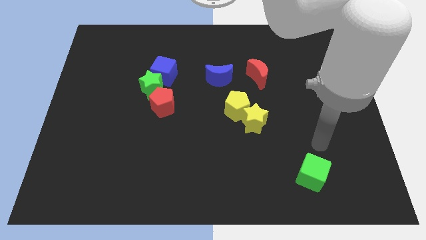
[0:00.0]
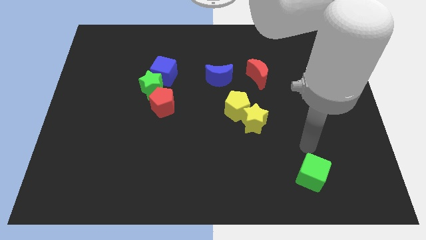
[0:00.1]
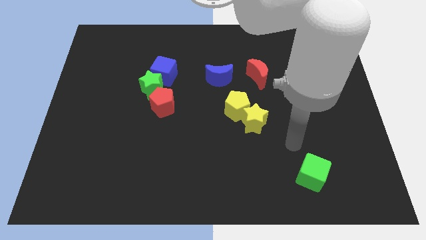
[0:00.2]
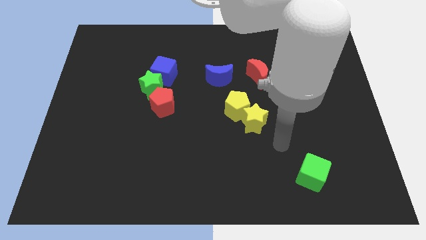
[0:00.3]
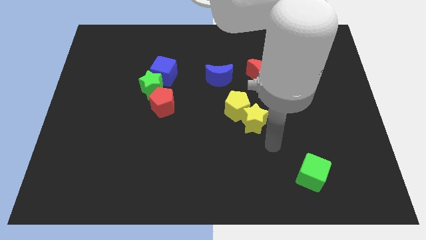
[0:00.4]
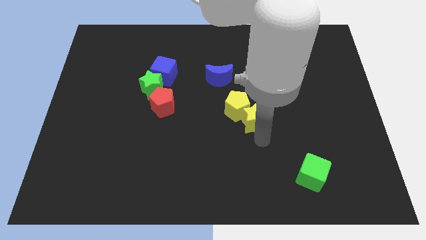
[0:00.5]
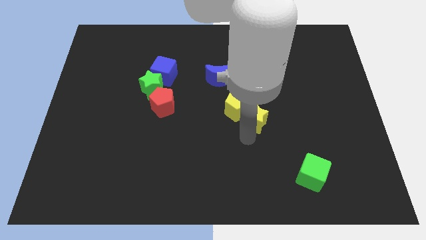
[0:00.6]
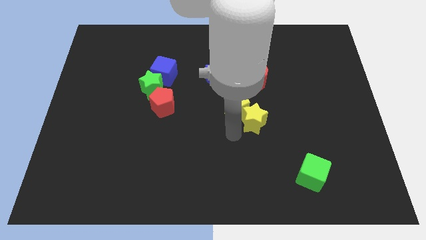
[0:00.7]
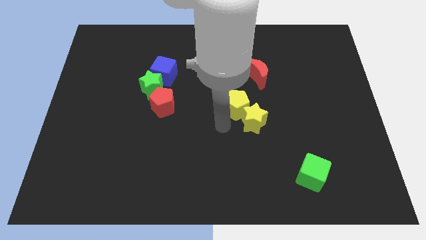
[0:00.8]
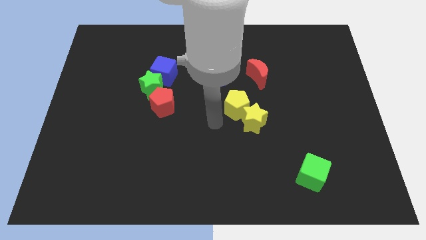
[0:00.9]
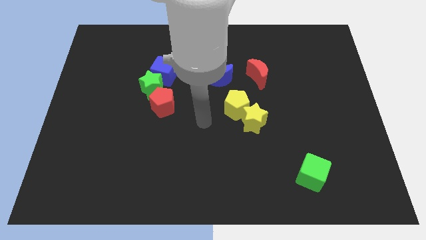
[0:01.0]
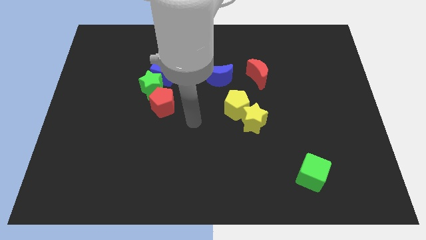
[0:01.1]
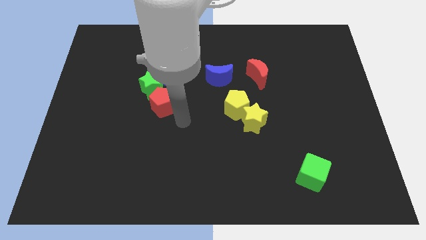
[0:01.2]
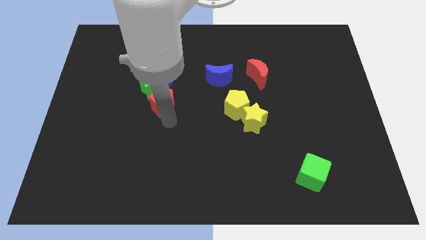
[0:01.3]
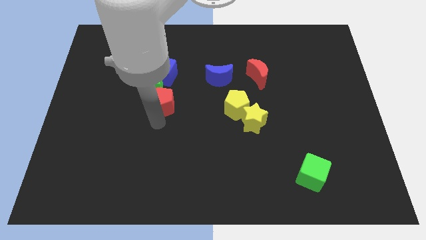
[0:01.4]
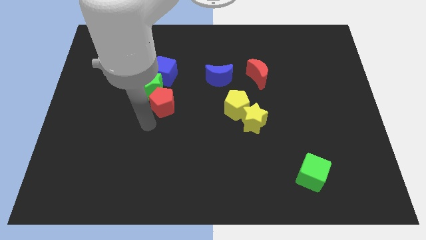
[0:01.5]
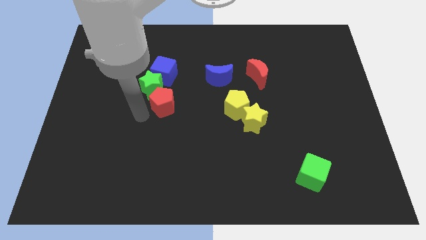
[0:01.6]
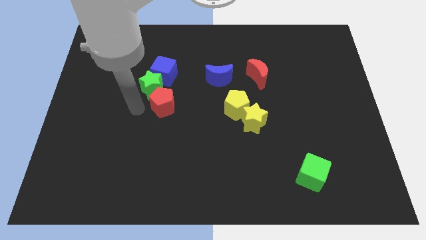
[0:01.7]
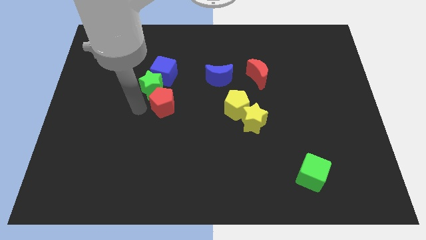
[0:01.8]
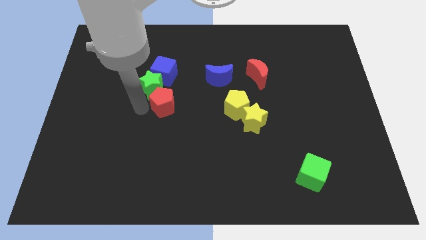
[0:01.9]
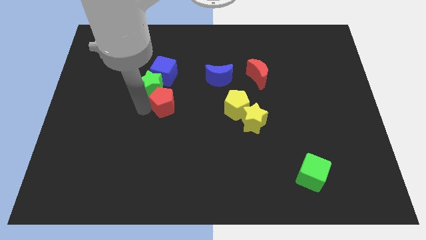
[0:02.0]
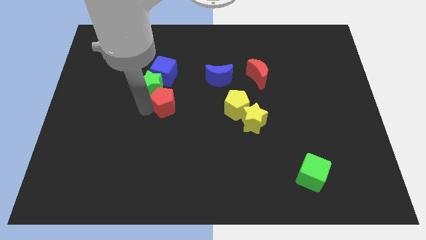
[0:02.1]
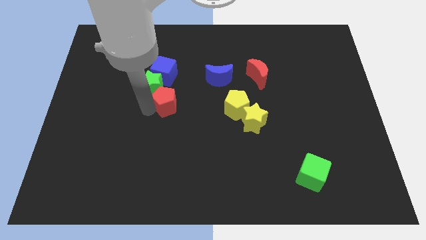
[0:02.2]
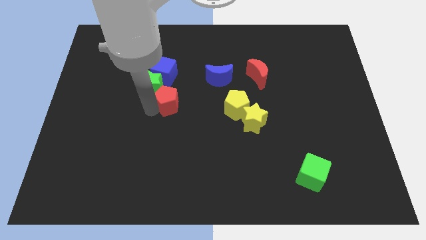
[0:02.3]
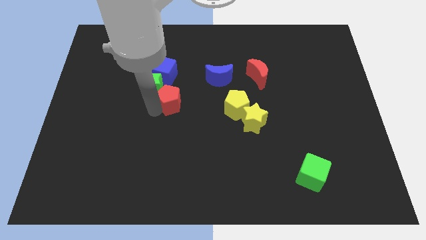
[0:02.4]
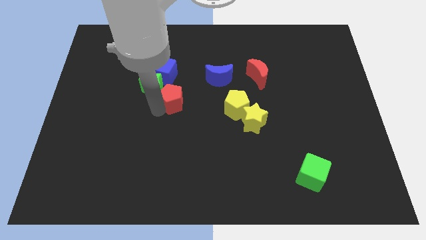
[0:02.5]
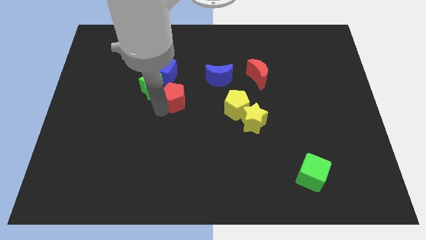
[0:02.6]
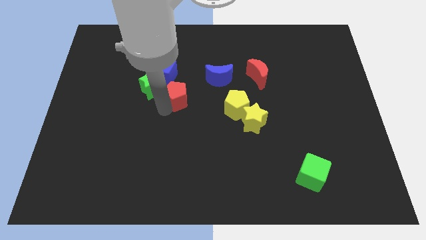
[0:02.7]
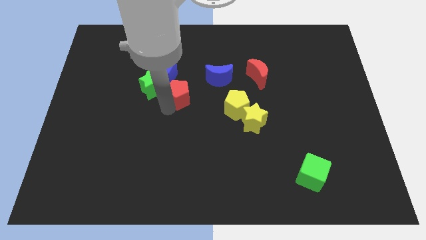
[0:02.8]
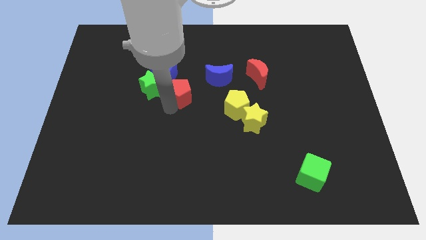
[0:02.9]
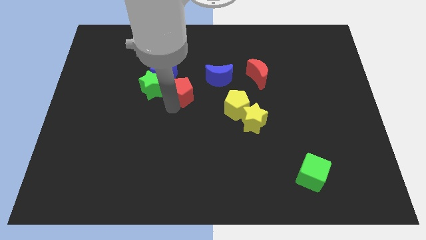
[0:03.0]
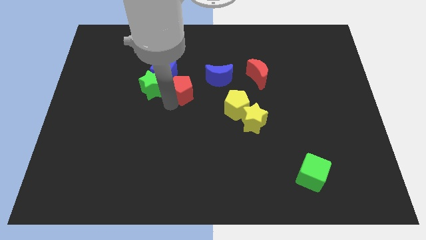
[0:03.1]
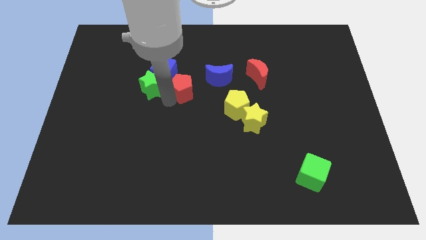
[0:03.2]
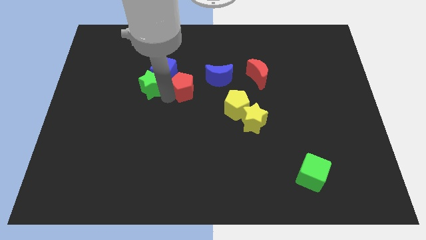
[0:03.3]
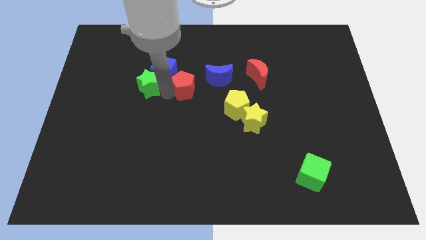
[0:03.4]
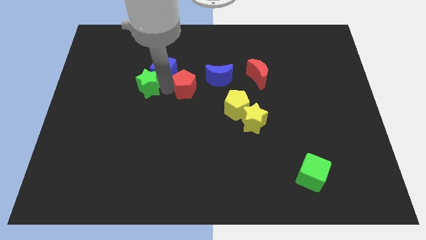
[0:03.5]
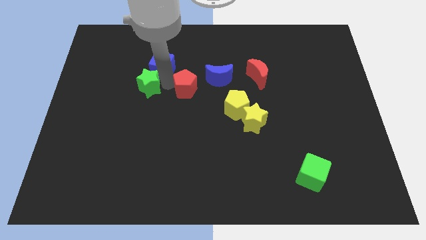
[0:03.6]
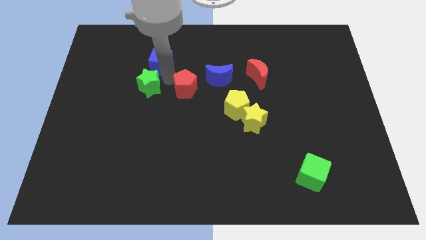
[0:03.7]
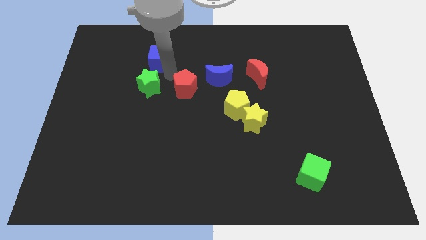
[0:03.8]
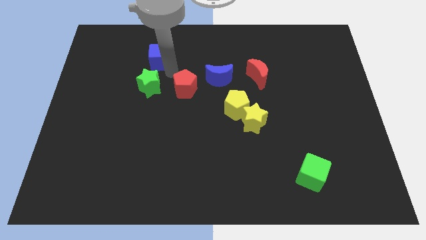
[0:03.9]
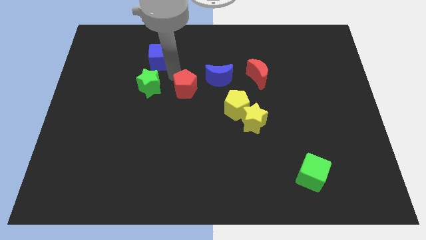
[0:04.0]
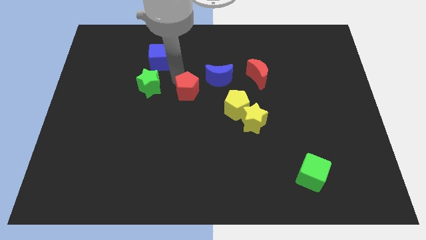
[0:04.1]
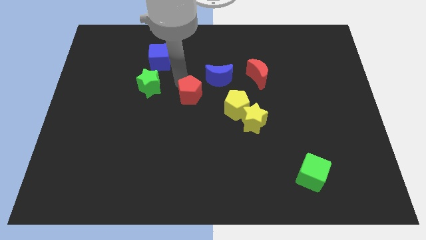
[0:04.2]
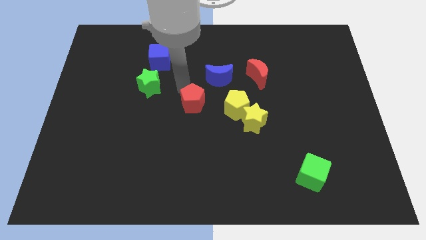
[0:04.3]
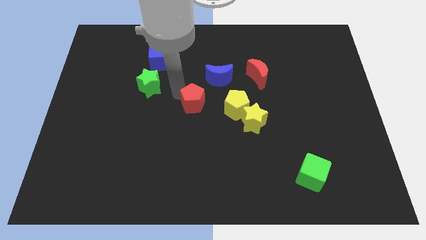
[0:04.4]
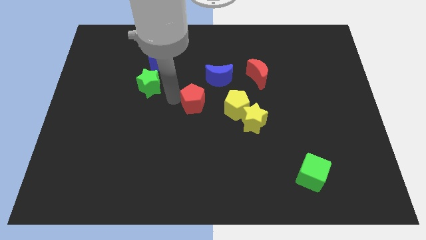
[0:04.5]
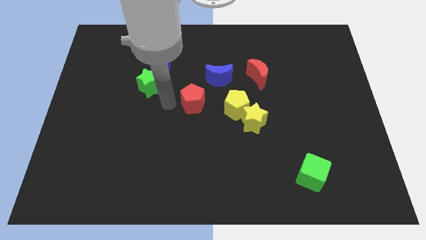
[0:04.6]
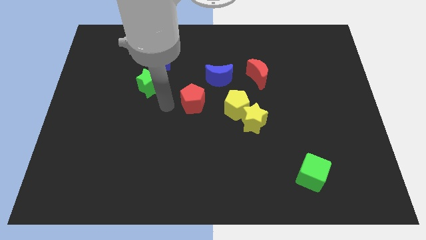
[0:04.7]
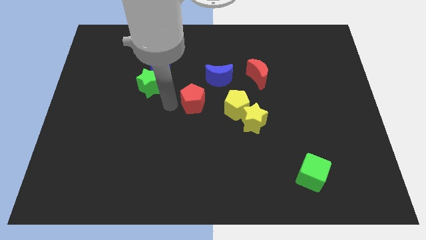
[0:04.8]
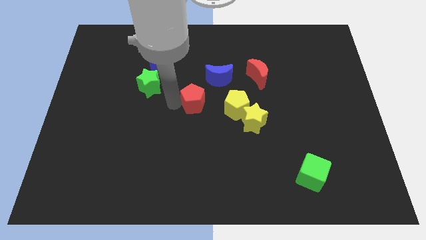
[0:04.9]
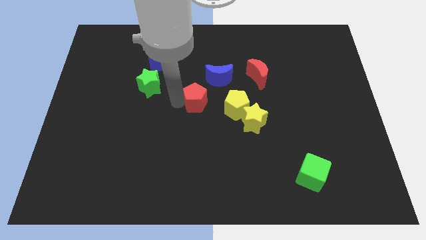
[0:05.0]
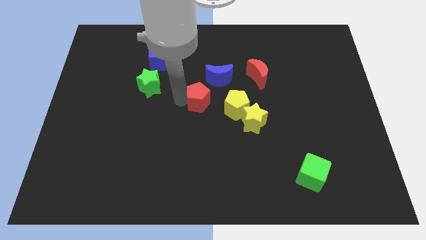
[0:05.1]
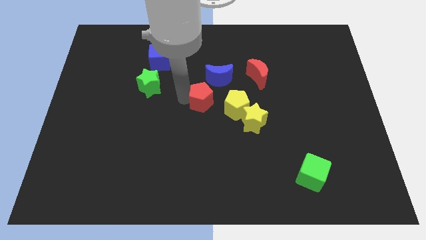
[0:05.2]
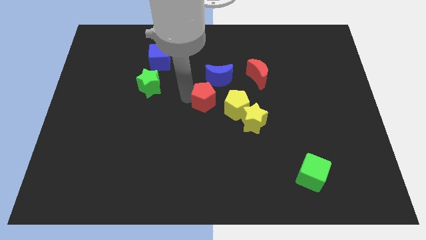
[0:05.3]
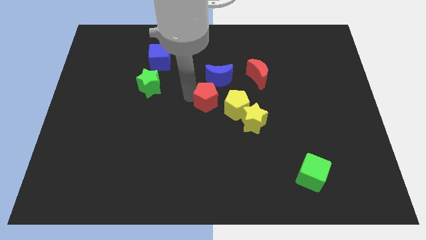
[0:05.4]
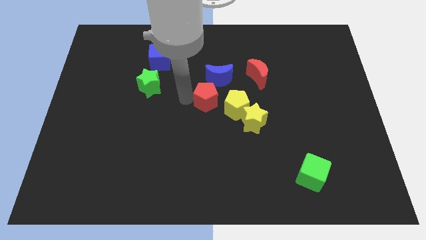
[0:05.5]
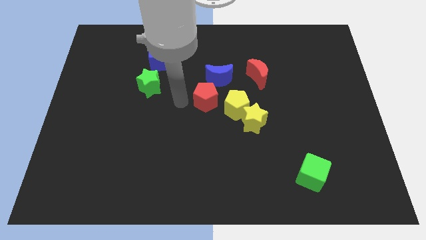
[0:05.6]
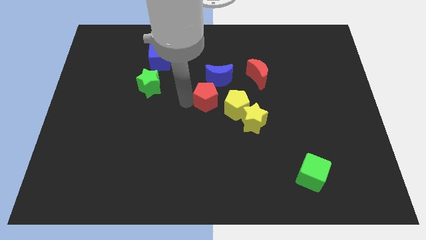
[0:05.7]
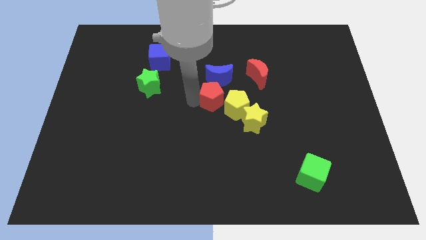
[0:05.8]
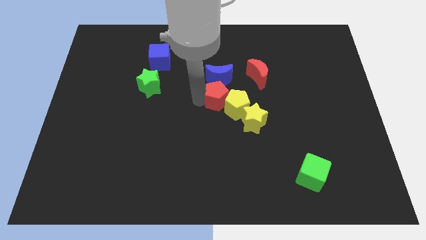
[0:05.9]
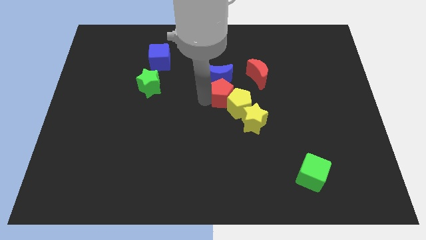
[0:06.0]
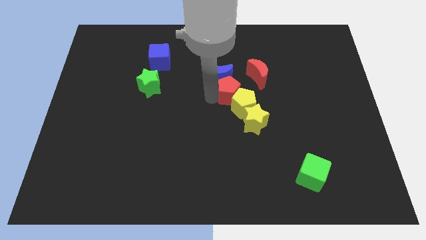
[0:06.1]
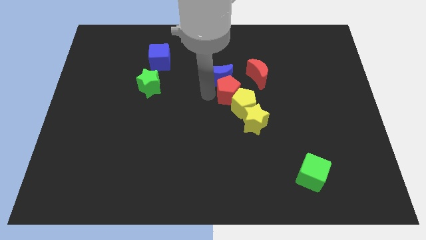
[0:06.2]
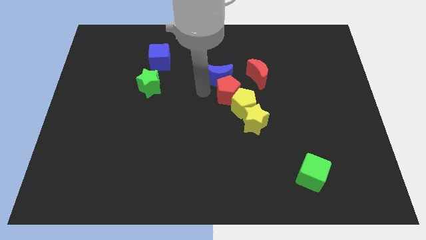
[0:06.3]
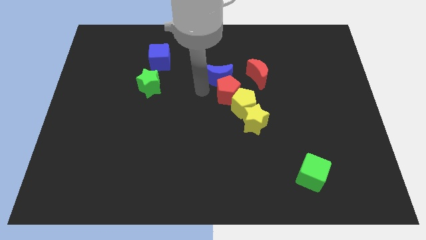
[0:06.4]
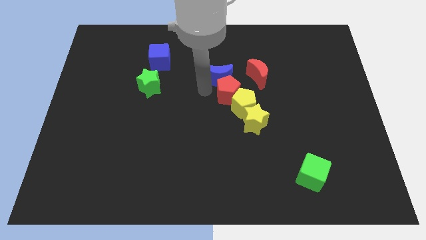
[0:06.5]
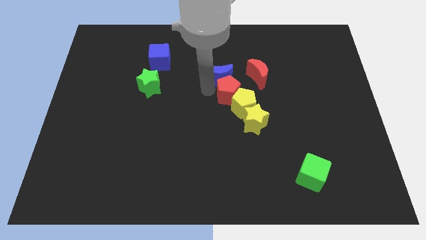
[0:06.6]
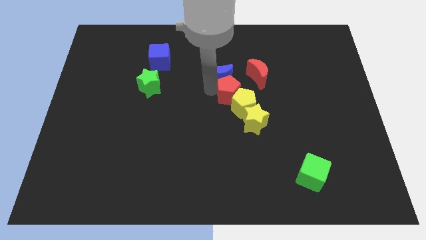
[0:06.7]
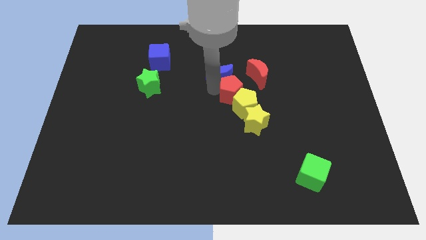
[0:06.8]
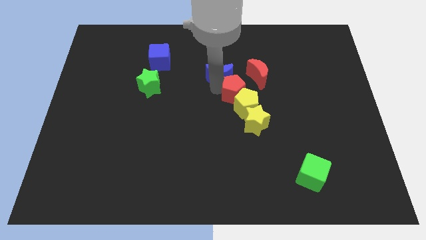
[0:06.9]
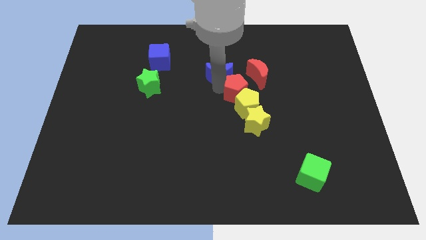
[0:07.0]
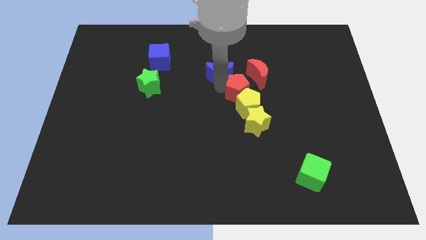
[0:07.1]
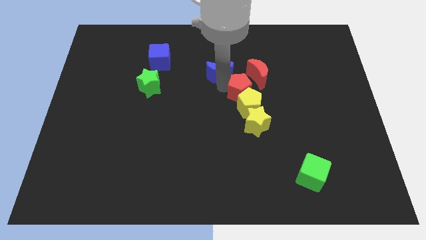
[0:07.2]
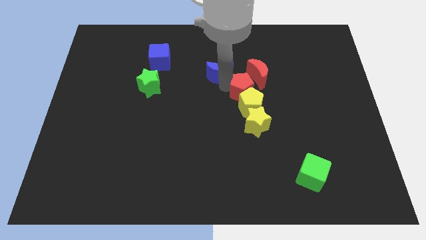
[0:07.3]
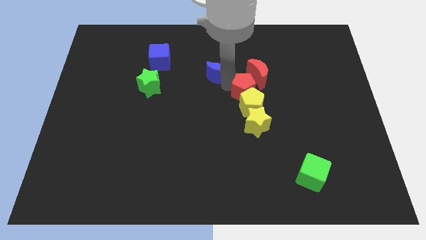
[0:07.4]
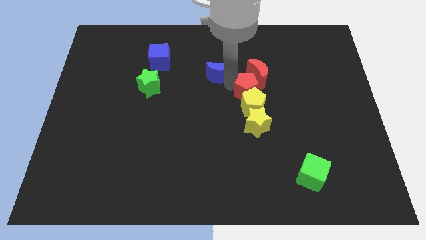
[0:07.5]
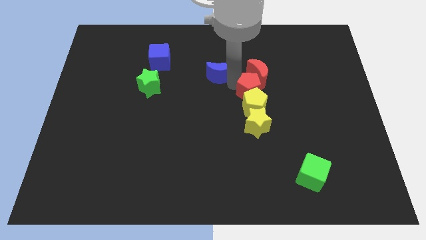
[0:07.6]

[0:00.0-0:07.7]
move the red pentagon right

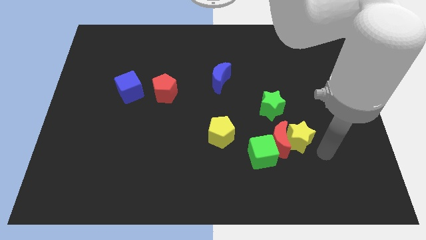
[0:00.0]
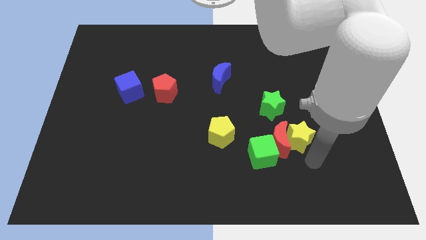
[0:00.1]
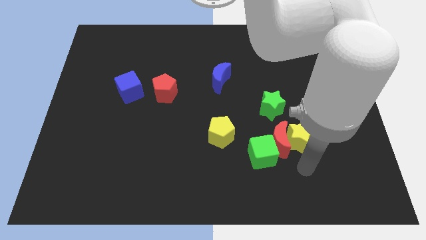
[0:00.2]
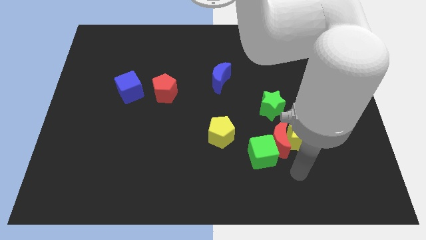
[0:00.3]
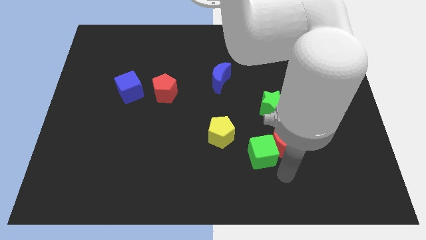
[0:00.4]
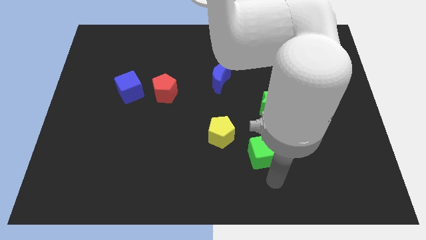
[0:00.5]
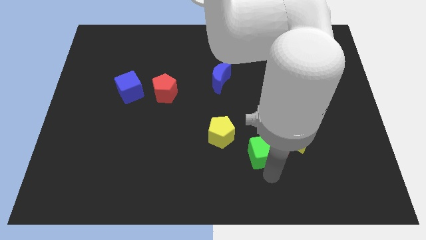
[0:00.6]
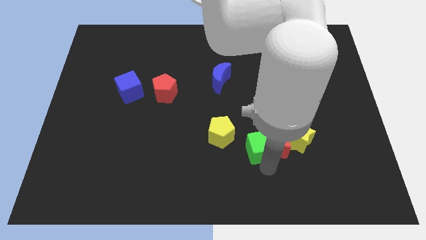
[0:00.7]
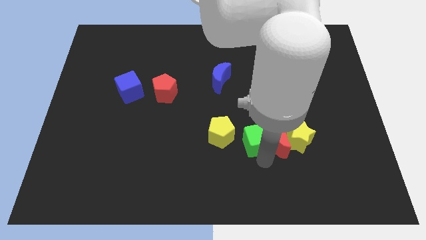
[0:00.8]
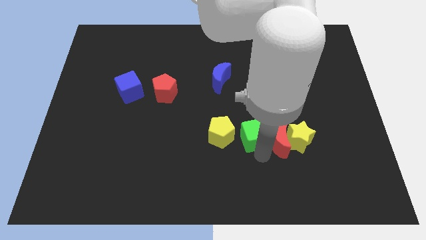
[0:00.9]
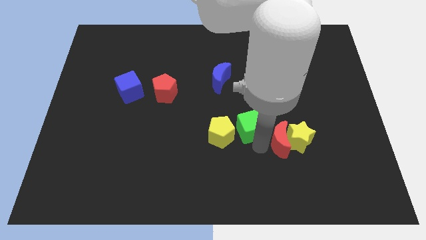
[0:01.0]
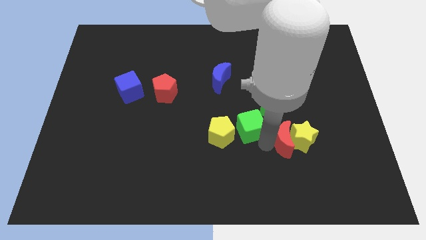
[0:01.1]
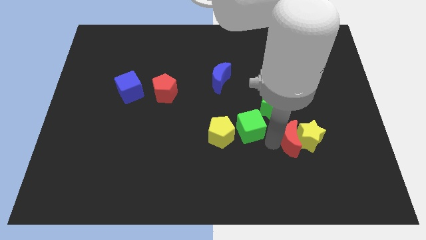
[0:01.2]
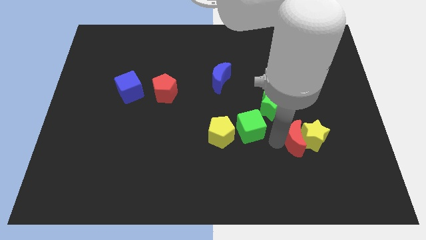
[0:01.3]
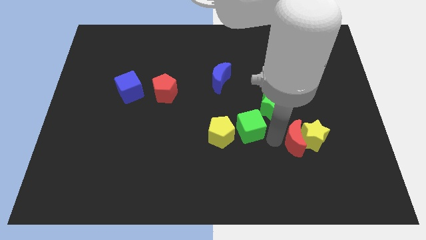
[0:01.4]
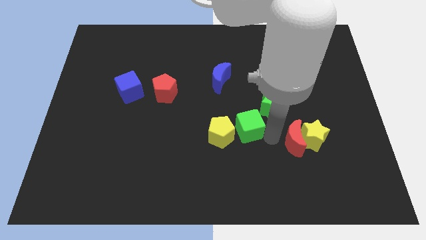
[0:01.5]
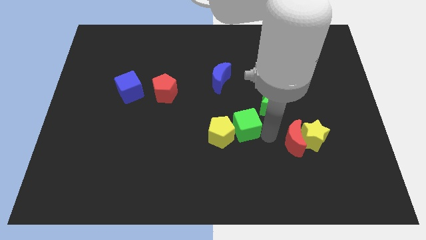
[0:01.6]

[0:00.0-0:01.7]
push the green cube diagonally up and left a little bit
